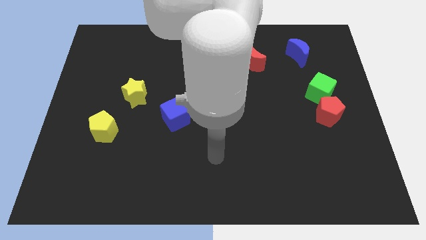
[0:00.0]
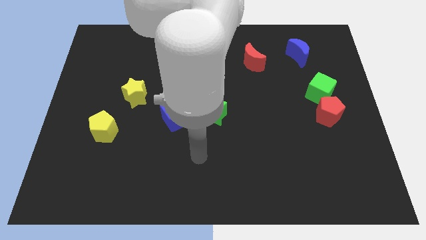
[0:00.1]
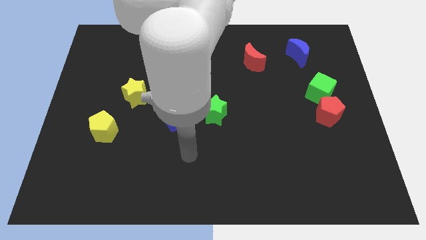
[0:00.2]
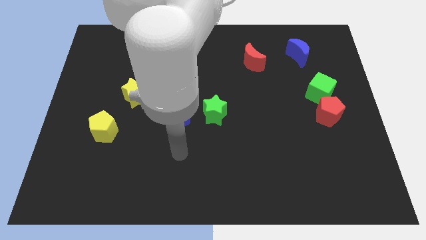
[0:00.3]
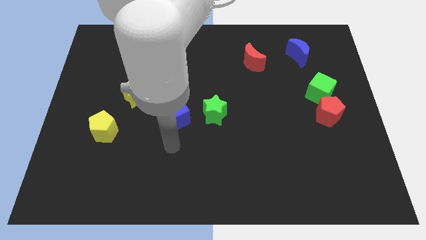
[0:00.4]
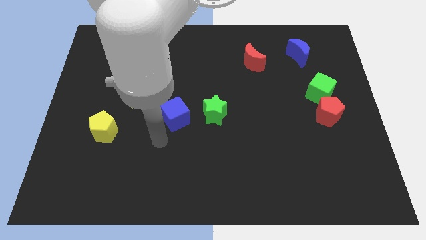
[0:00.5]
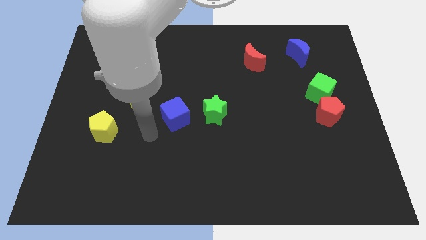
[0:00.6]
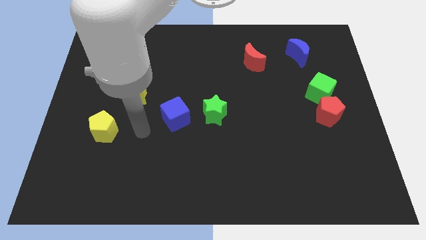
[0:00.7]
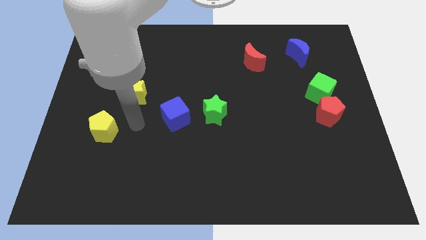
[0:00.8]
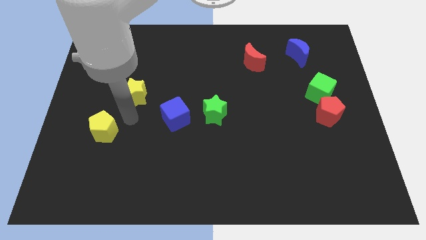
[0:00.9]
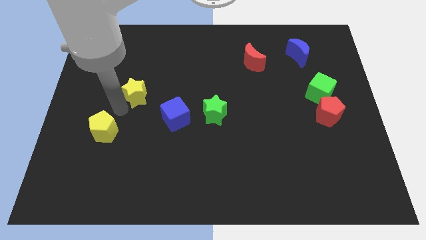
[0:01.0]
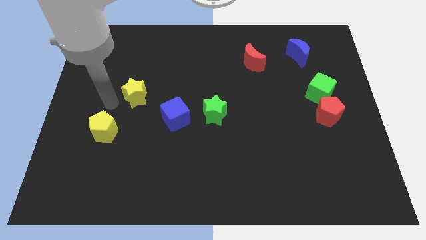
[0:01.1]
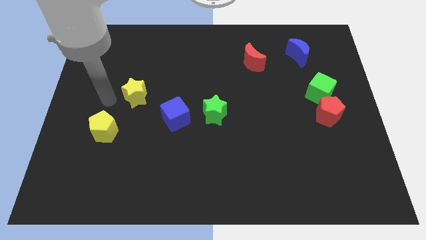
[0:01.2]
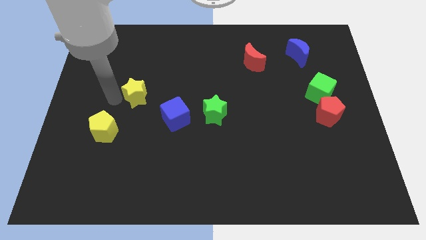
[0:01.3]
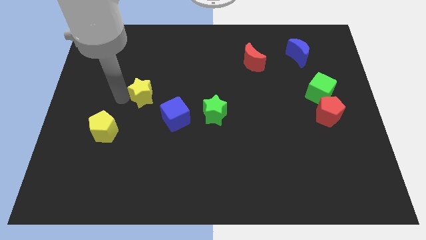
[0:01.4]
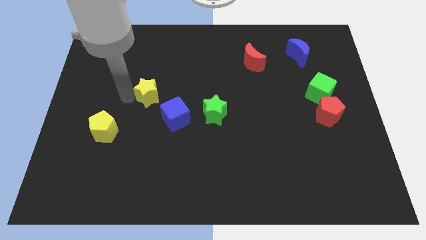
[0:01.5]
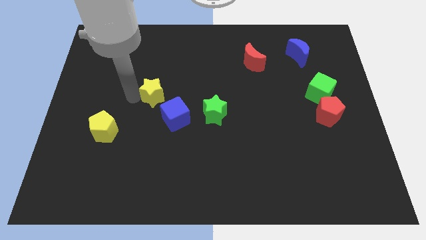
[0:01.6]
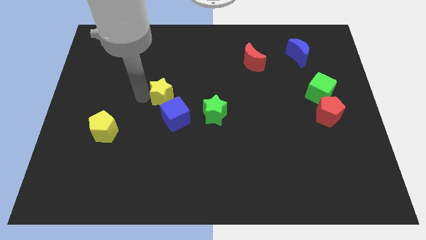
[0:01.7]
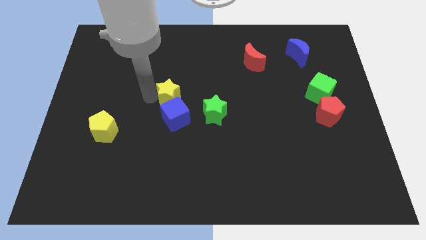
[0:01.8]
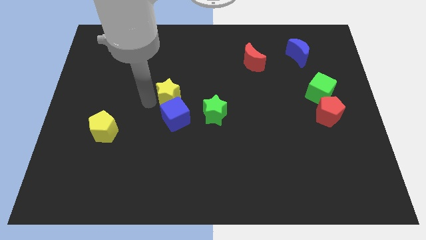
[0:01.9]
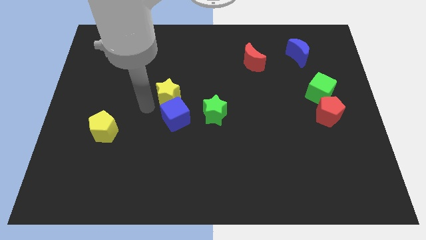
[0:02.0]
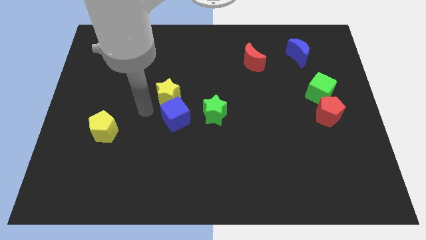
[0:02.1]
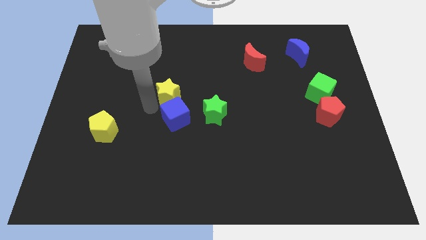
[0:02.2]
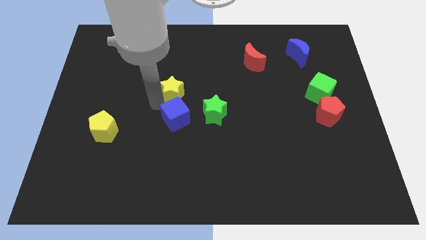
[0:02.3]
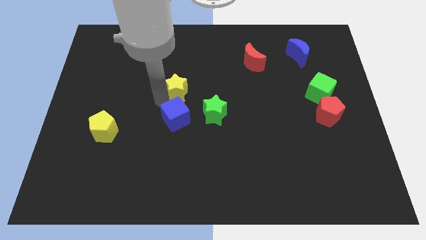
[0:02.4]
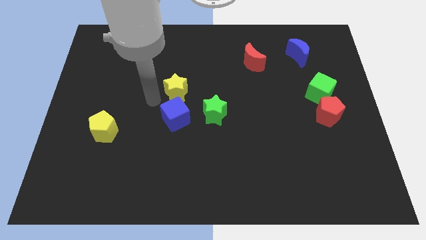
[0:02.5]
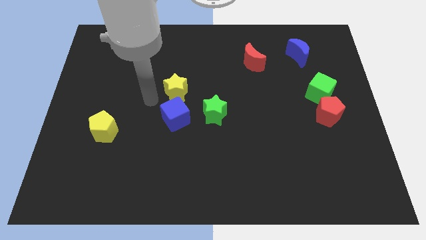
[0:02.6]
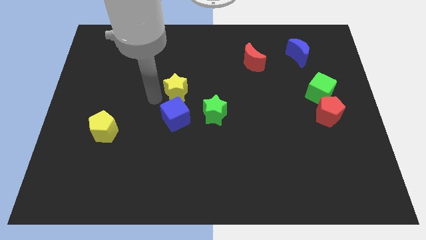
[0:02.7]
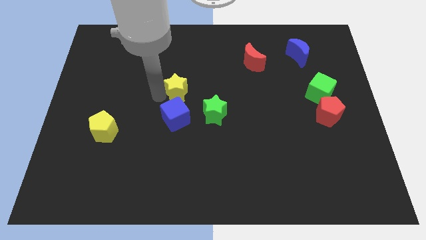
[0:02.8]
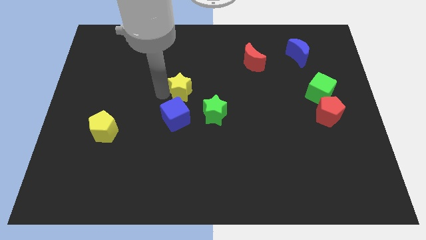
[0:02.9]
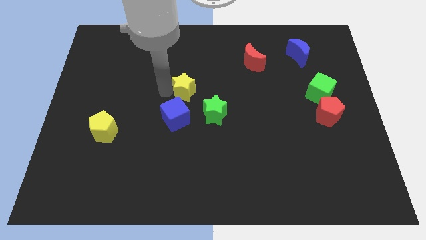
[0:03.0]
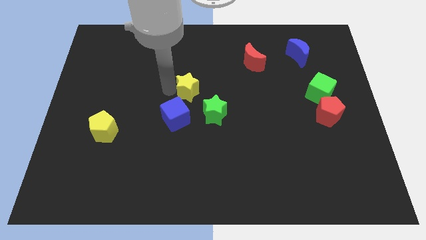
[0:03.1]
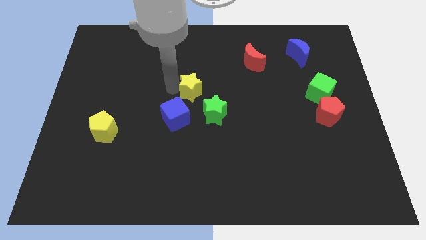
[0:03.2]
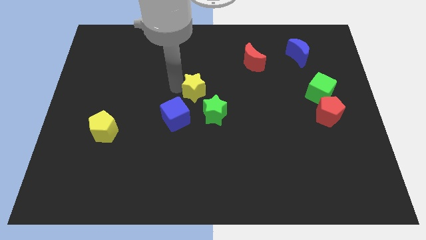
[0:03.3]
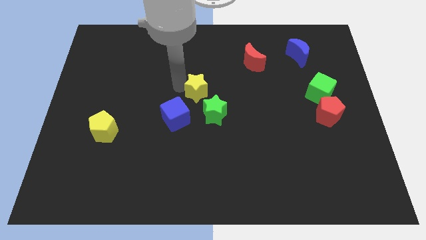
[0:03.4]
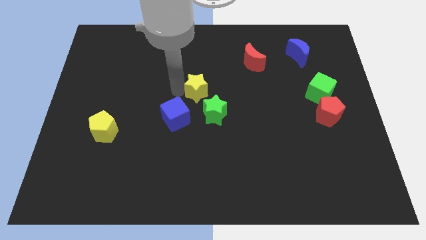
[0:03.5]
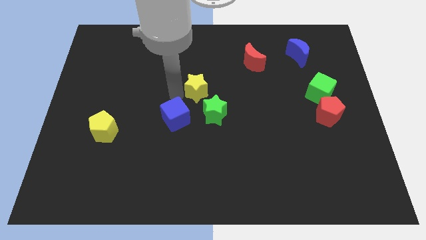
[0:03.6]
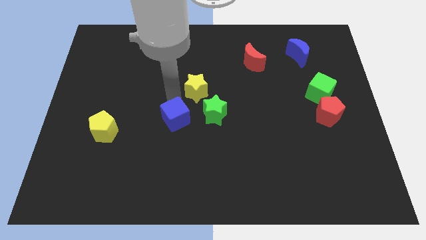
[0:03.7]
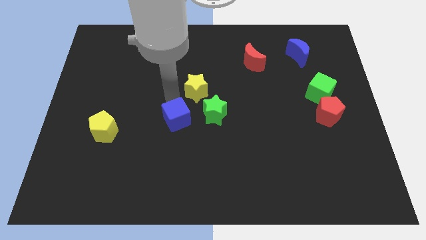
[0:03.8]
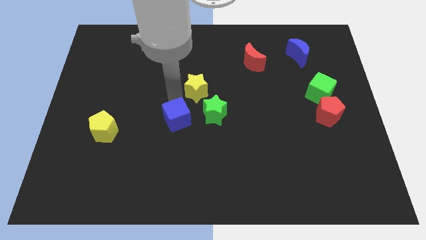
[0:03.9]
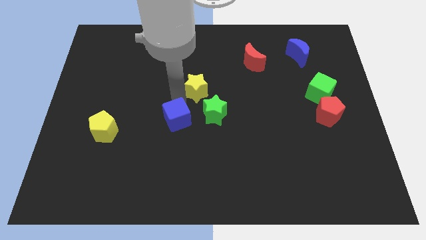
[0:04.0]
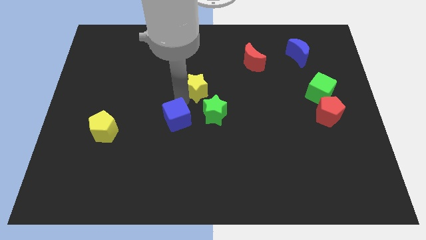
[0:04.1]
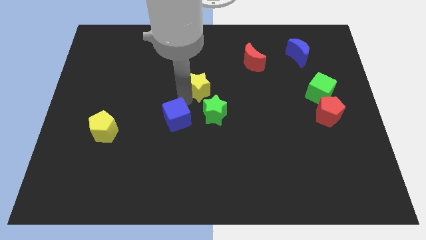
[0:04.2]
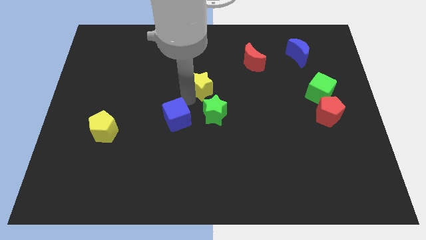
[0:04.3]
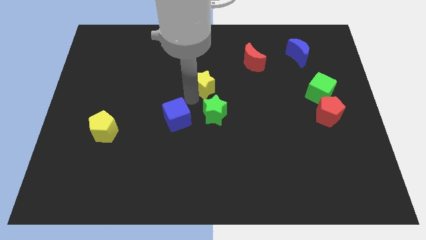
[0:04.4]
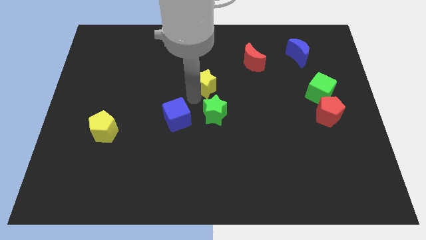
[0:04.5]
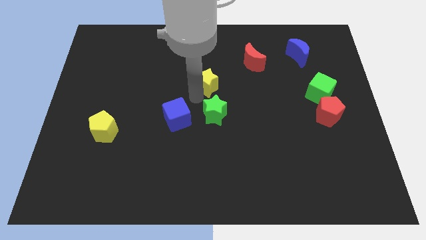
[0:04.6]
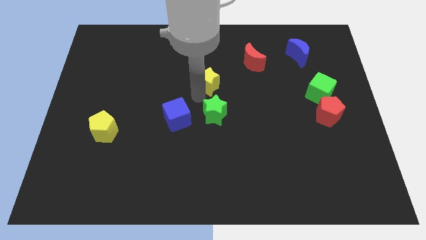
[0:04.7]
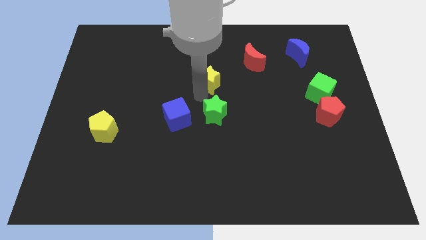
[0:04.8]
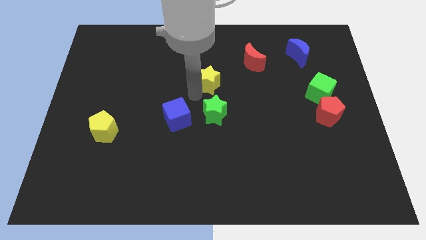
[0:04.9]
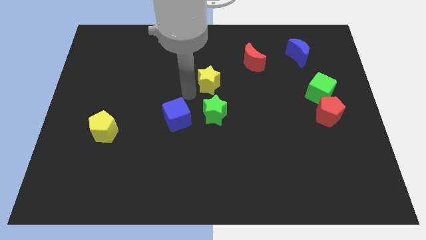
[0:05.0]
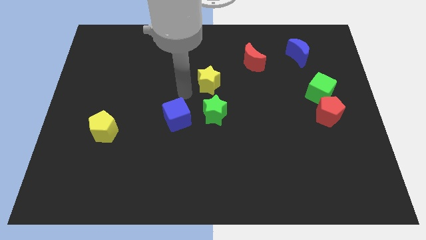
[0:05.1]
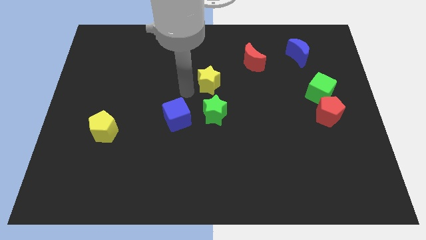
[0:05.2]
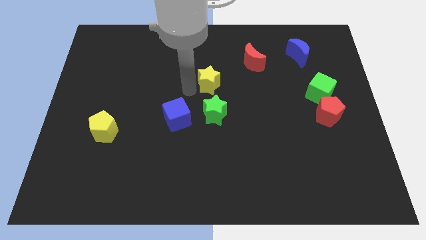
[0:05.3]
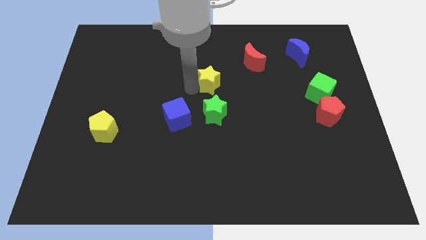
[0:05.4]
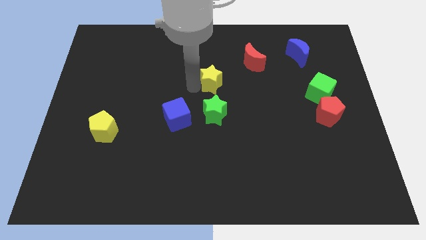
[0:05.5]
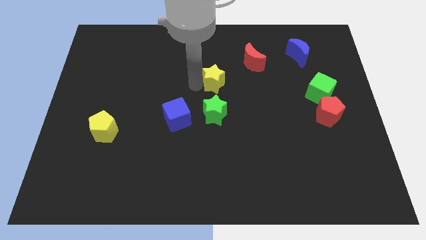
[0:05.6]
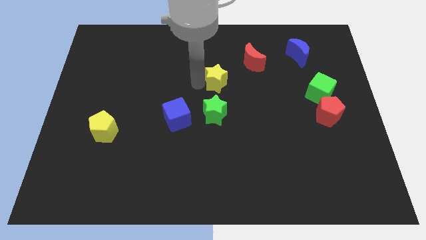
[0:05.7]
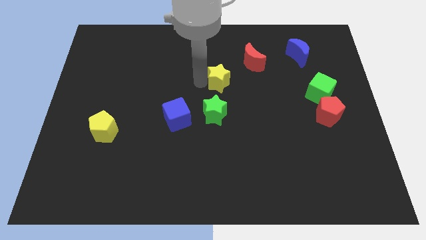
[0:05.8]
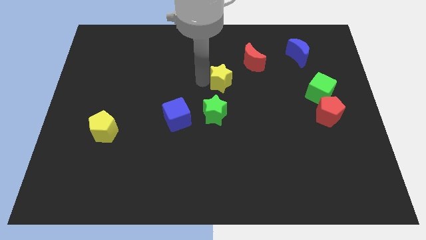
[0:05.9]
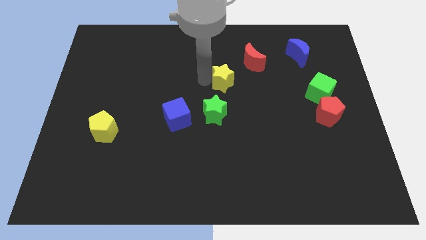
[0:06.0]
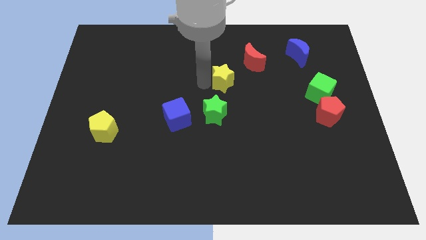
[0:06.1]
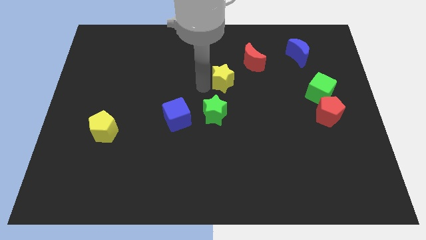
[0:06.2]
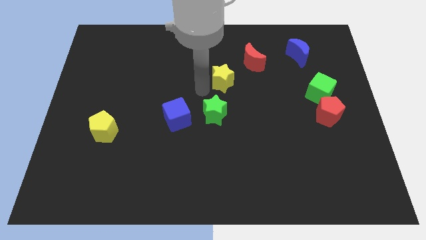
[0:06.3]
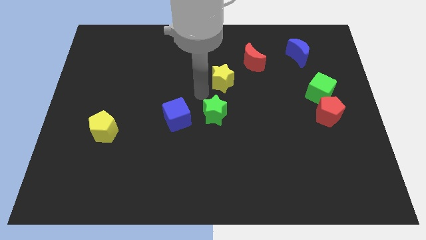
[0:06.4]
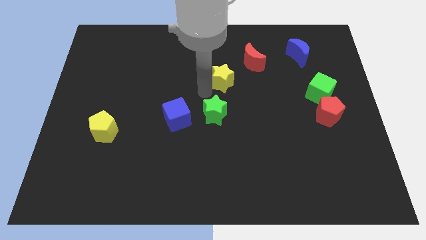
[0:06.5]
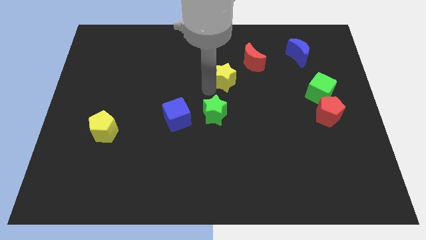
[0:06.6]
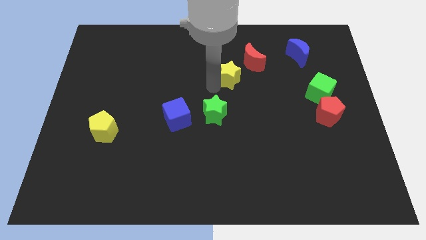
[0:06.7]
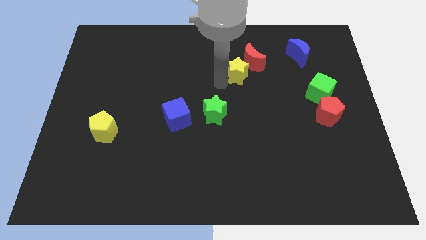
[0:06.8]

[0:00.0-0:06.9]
push the yellow star close to the red moon

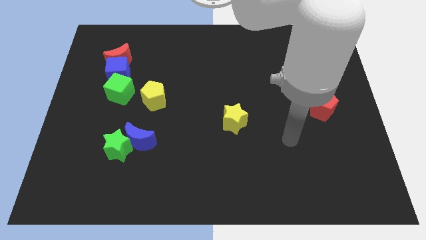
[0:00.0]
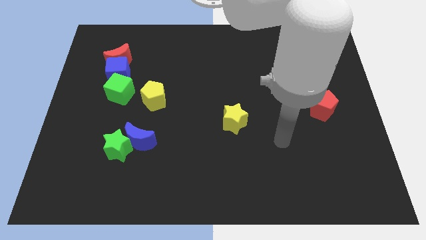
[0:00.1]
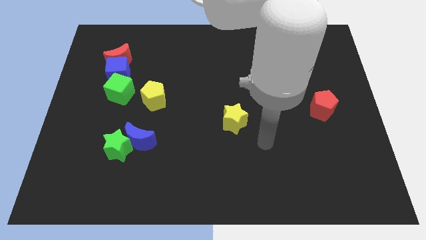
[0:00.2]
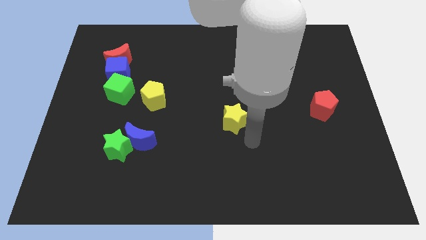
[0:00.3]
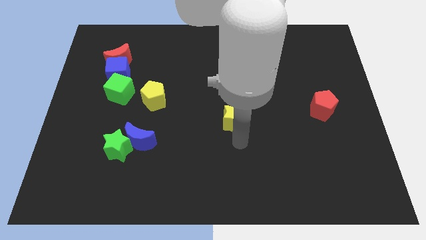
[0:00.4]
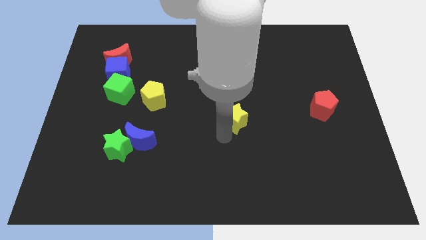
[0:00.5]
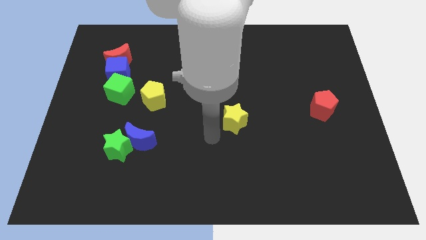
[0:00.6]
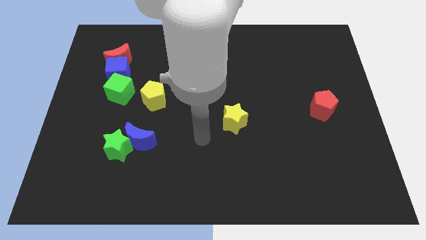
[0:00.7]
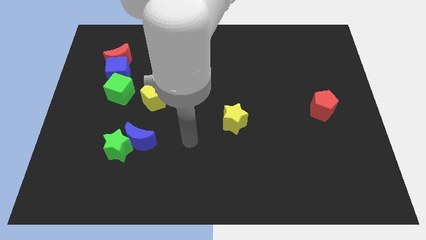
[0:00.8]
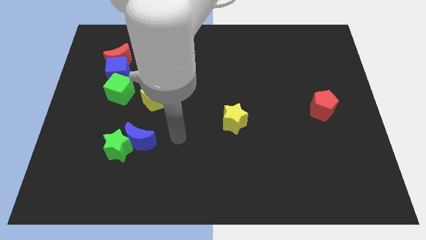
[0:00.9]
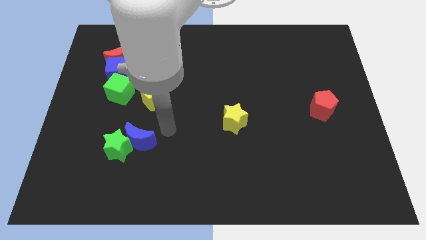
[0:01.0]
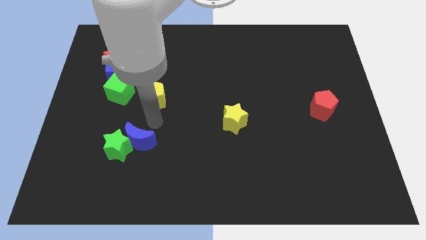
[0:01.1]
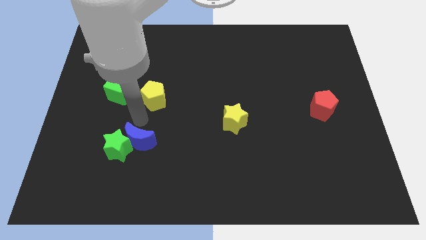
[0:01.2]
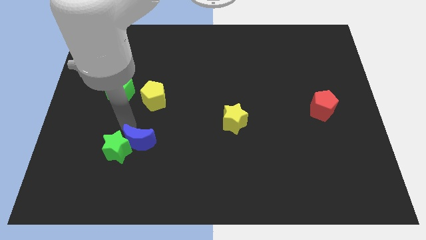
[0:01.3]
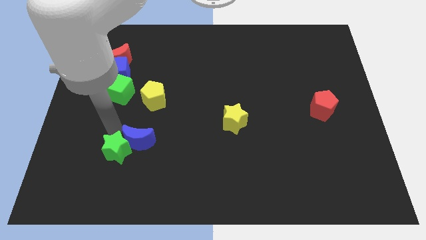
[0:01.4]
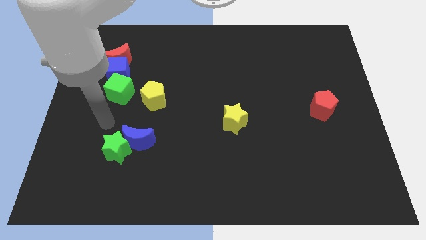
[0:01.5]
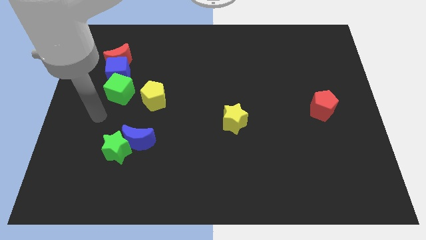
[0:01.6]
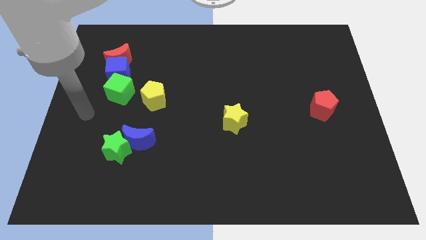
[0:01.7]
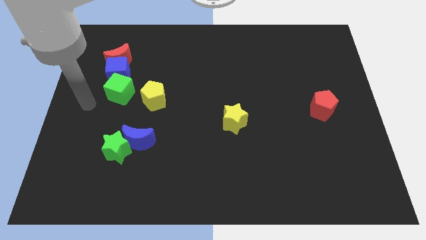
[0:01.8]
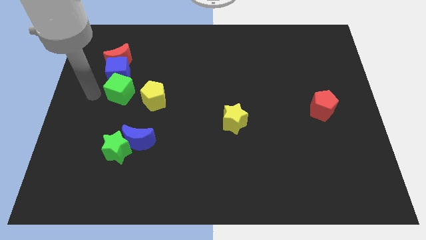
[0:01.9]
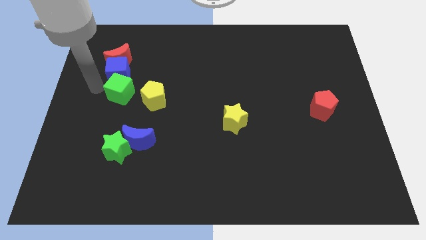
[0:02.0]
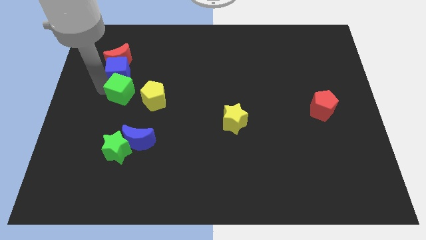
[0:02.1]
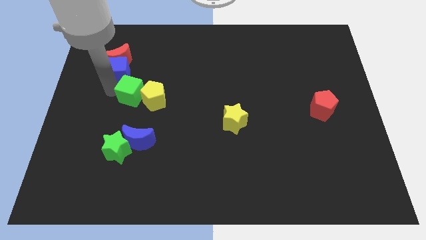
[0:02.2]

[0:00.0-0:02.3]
move the green cube to the yellow pentagon
